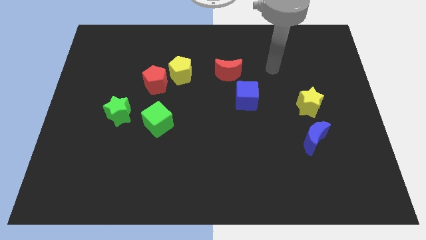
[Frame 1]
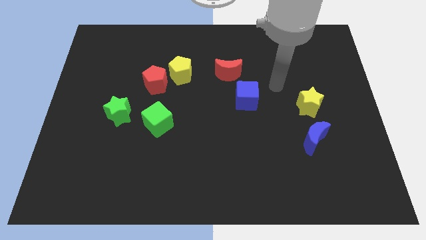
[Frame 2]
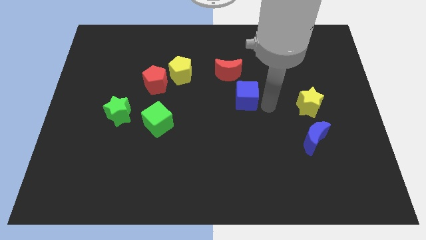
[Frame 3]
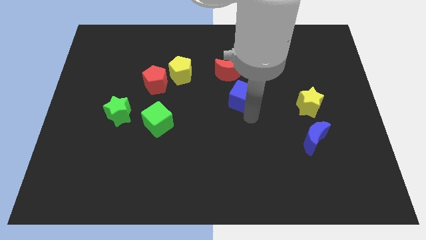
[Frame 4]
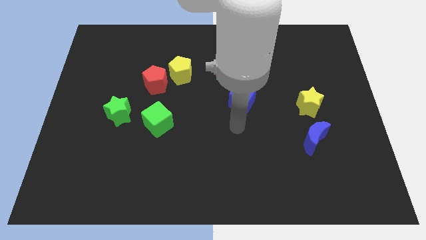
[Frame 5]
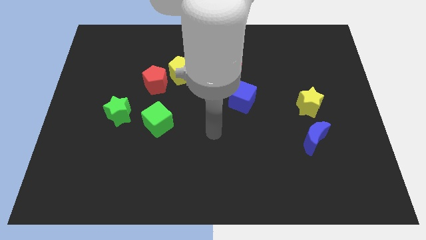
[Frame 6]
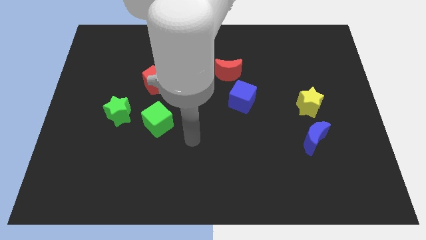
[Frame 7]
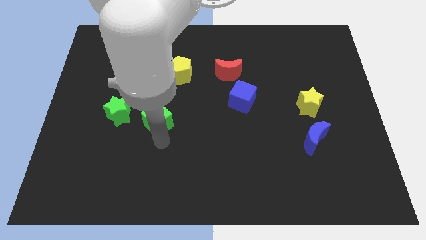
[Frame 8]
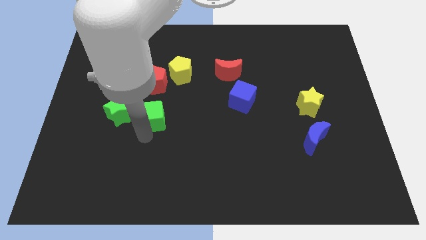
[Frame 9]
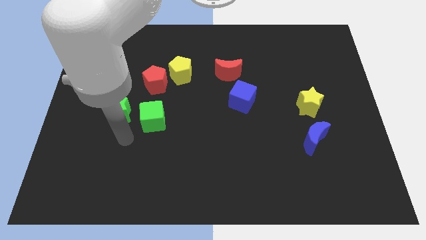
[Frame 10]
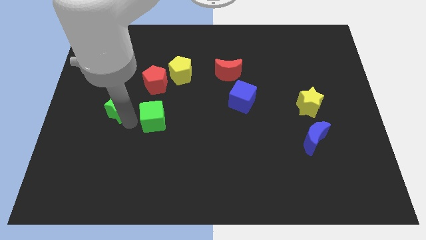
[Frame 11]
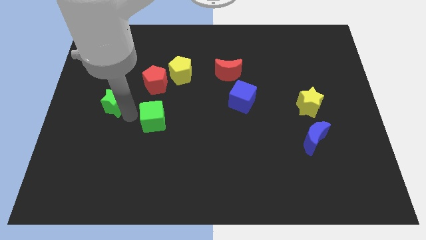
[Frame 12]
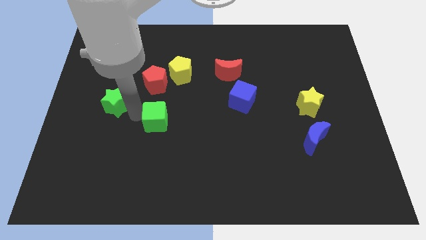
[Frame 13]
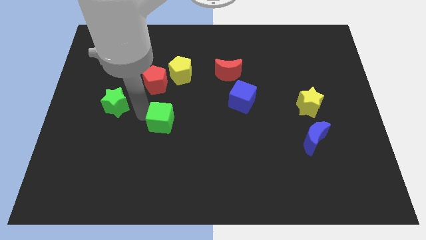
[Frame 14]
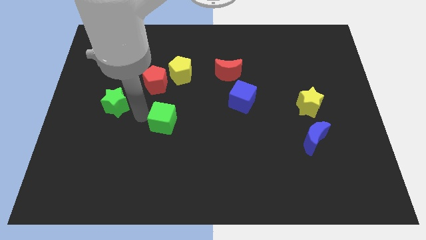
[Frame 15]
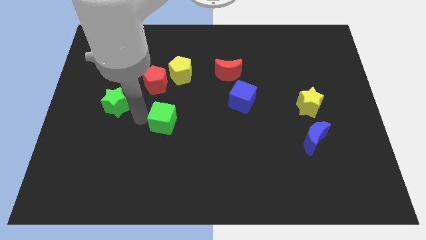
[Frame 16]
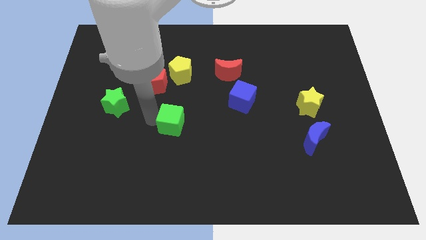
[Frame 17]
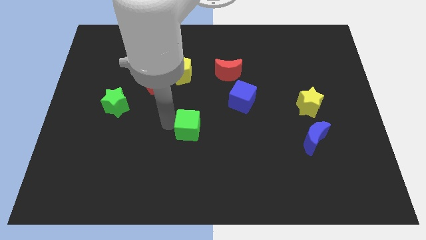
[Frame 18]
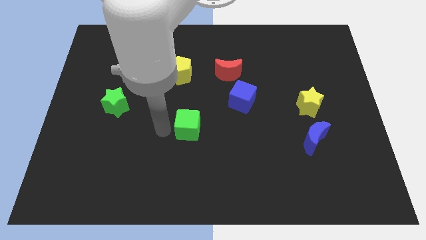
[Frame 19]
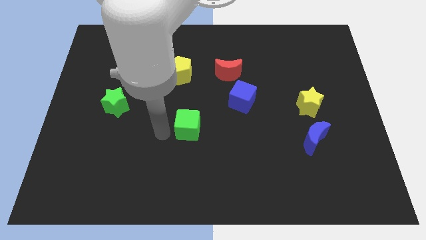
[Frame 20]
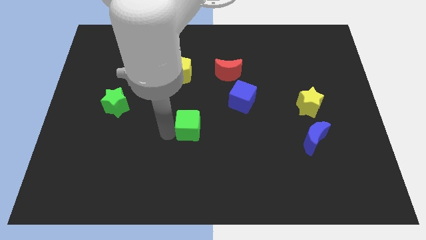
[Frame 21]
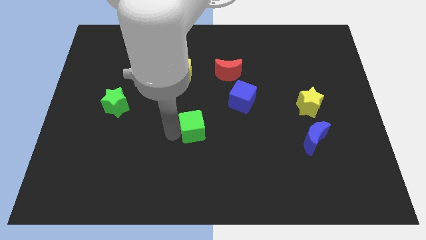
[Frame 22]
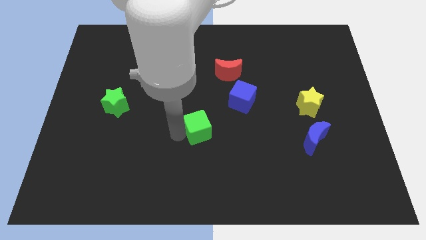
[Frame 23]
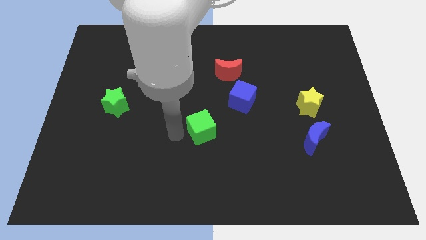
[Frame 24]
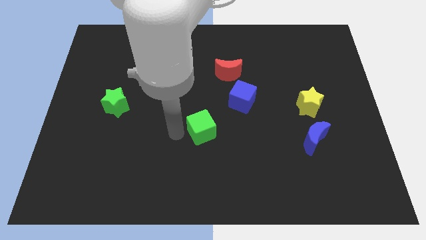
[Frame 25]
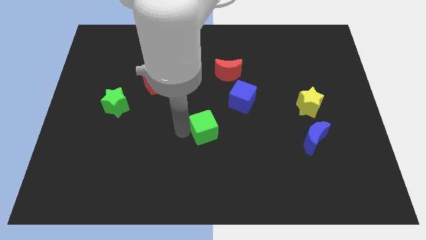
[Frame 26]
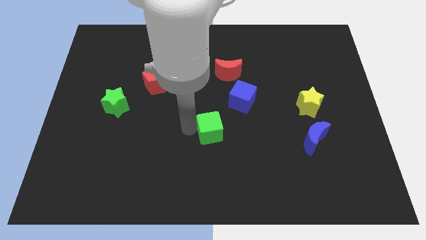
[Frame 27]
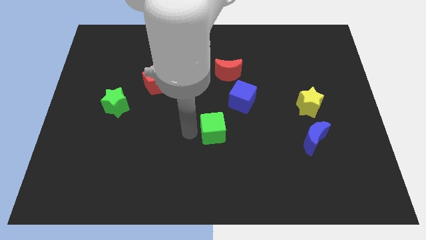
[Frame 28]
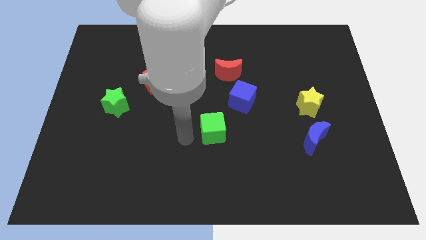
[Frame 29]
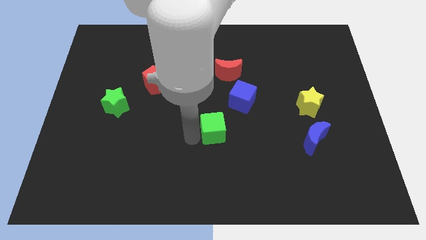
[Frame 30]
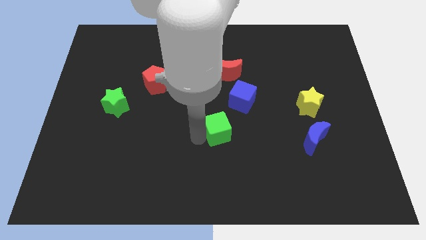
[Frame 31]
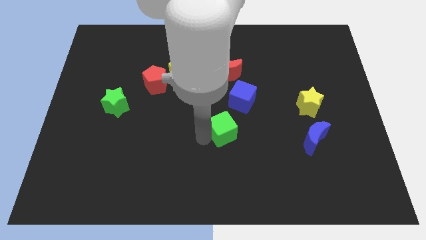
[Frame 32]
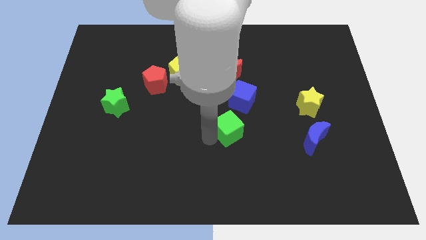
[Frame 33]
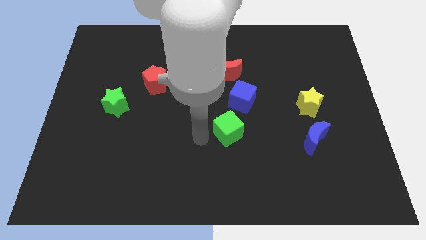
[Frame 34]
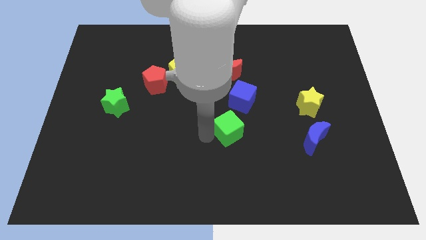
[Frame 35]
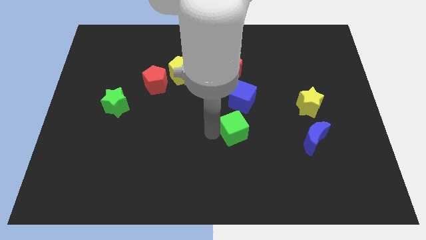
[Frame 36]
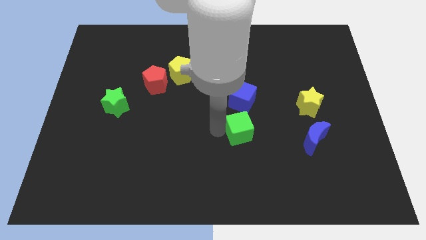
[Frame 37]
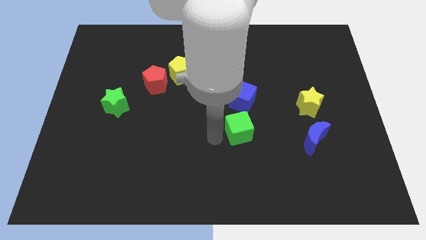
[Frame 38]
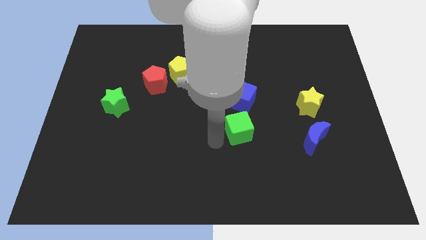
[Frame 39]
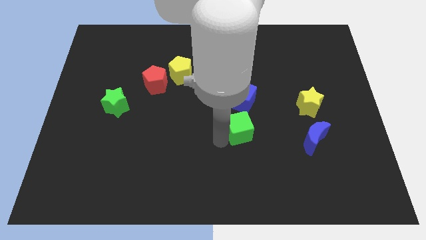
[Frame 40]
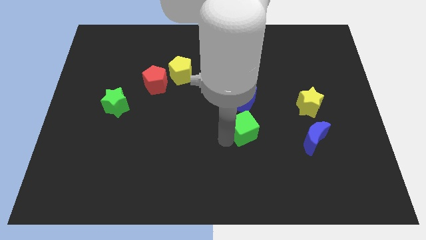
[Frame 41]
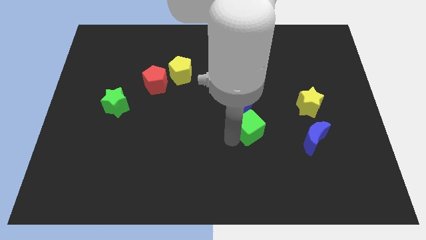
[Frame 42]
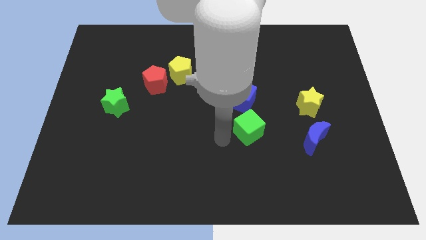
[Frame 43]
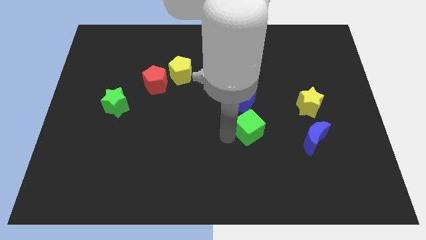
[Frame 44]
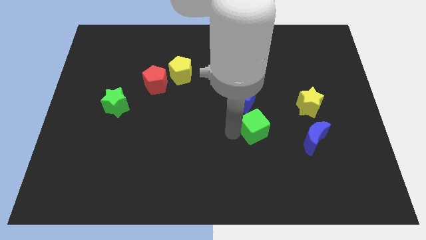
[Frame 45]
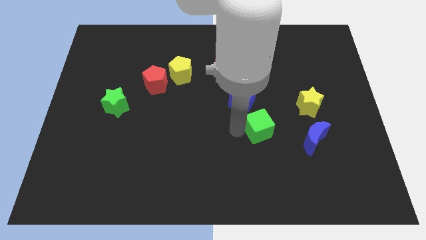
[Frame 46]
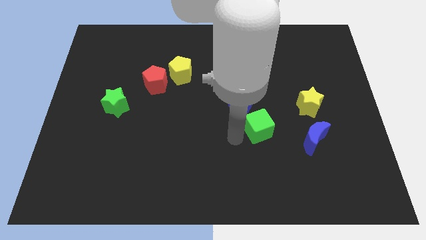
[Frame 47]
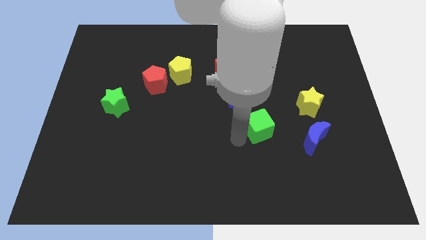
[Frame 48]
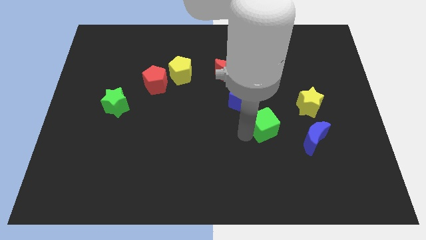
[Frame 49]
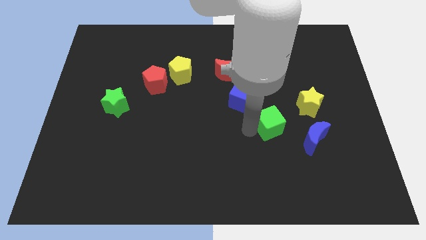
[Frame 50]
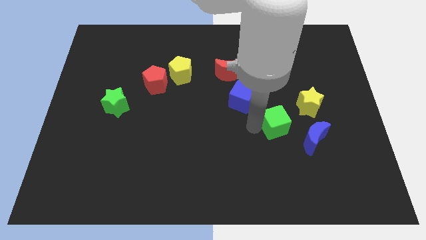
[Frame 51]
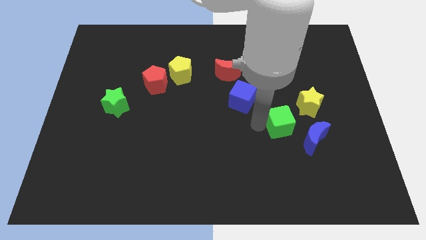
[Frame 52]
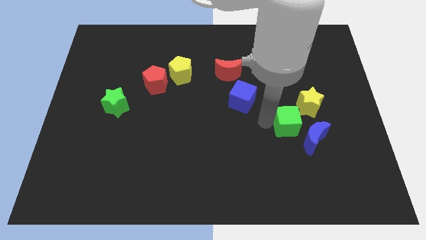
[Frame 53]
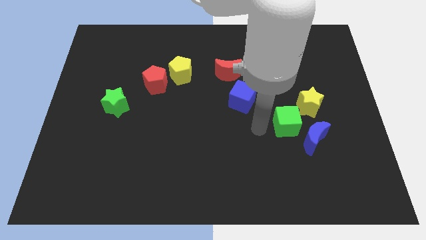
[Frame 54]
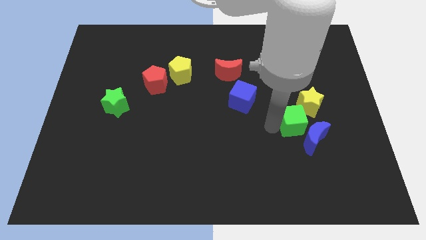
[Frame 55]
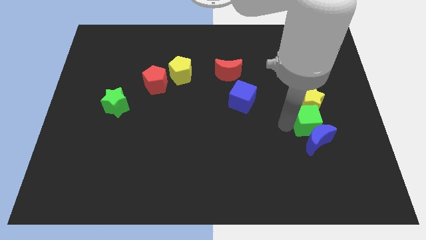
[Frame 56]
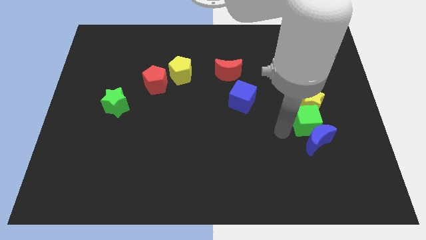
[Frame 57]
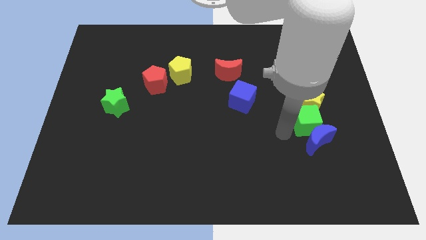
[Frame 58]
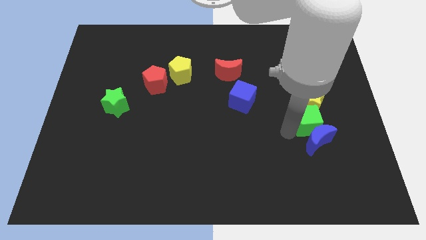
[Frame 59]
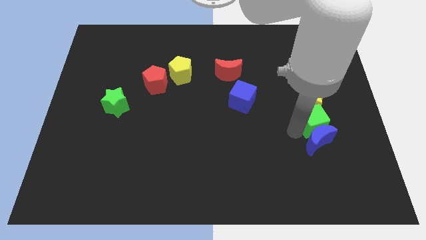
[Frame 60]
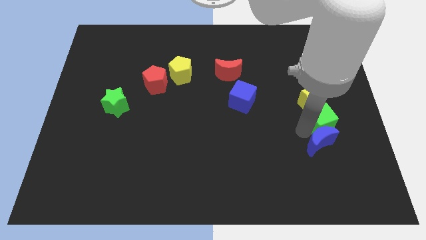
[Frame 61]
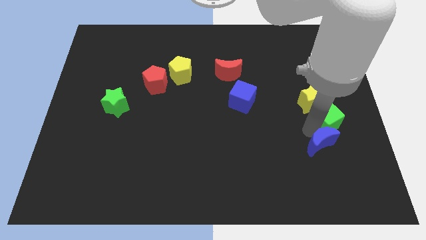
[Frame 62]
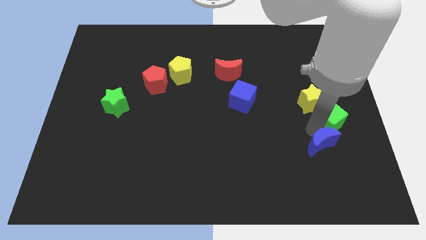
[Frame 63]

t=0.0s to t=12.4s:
slide the green cube to the right side of the board

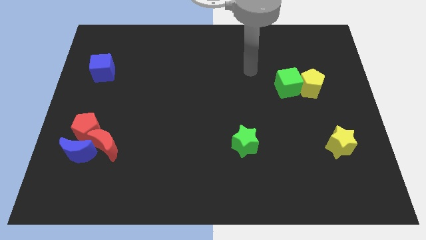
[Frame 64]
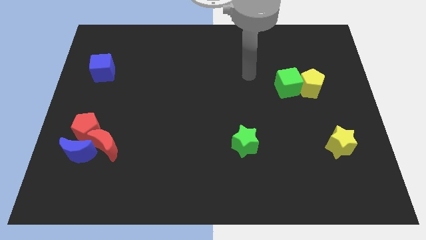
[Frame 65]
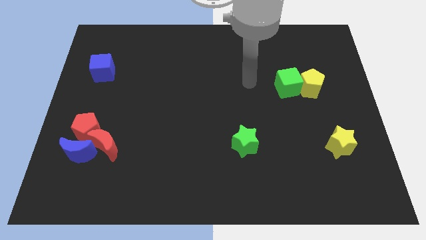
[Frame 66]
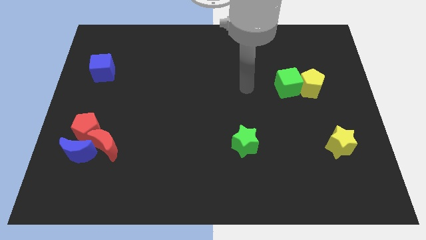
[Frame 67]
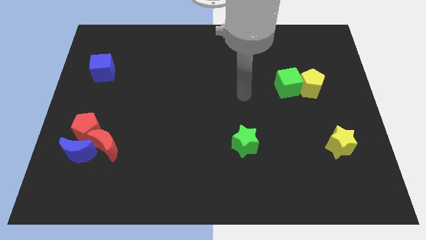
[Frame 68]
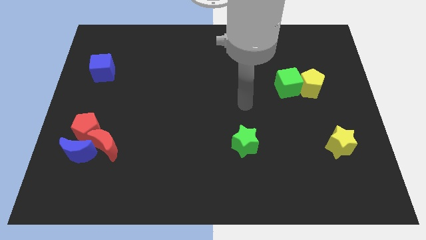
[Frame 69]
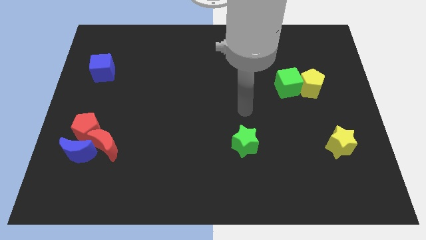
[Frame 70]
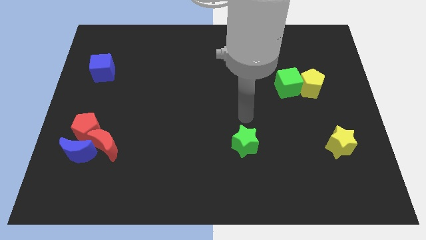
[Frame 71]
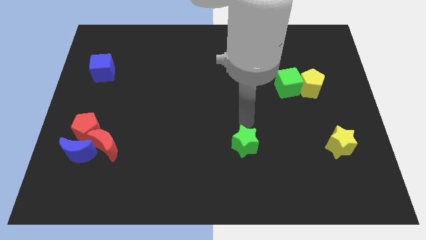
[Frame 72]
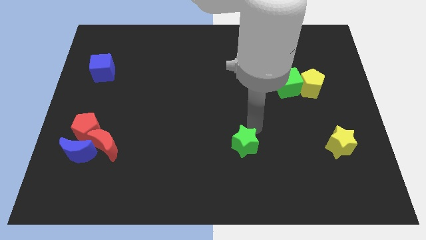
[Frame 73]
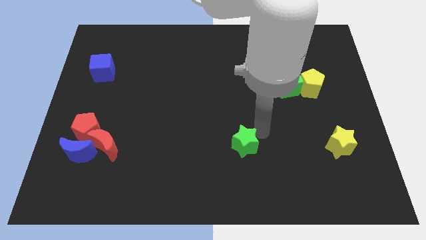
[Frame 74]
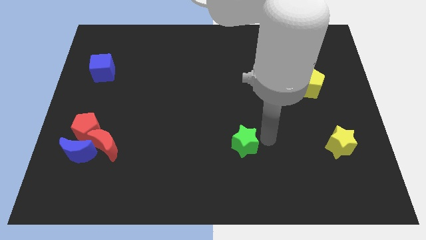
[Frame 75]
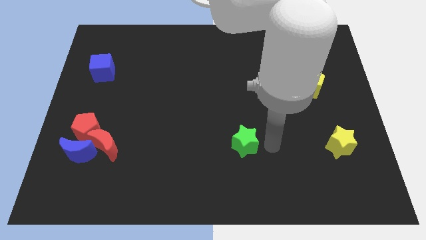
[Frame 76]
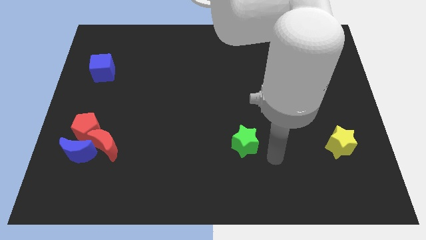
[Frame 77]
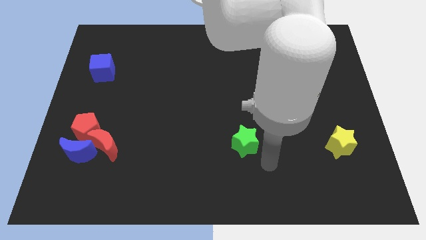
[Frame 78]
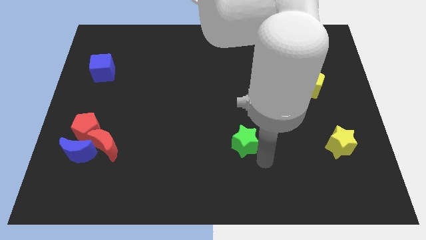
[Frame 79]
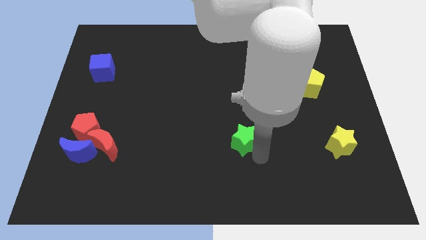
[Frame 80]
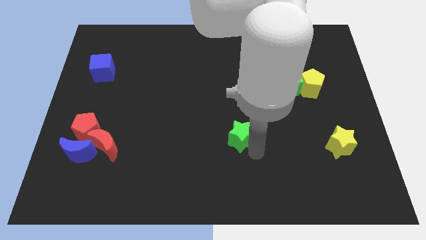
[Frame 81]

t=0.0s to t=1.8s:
push the green star to the middle
